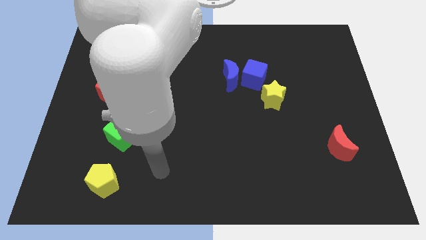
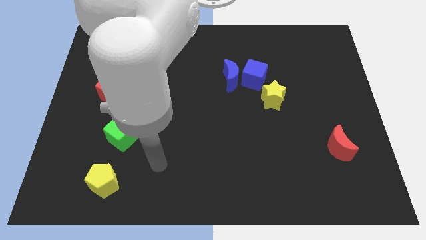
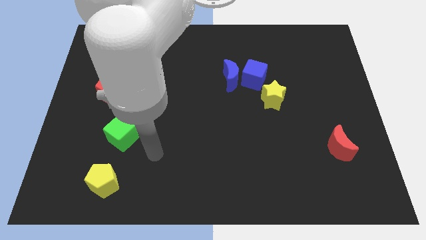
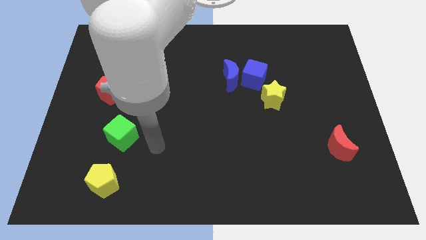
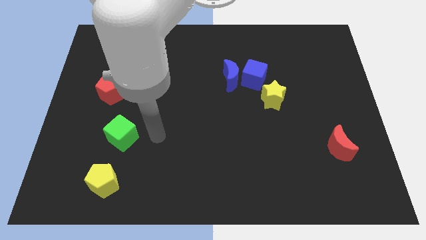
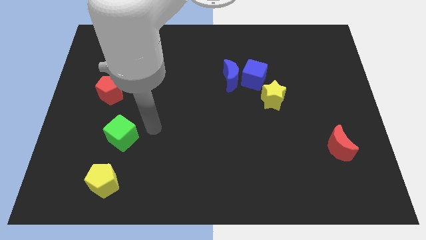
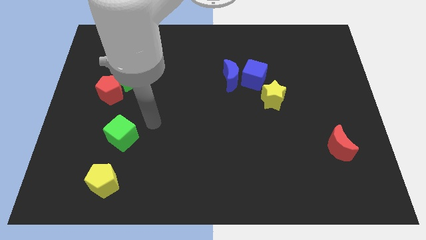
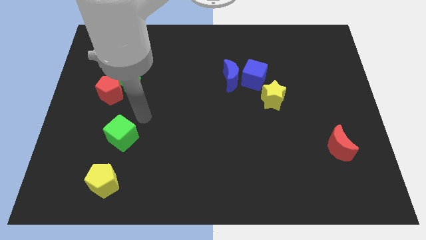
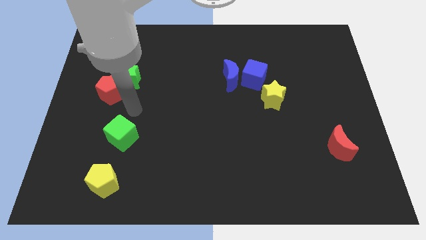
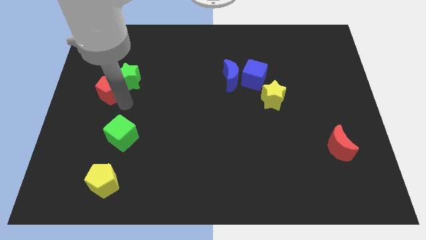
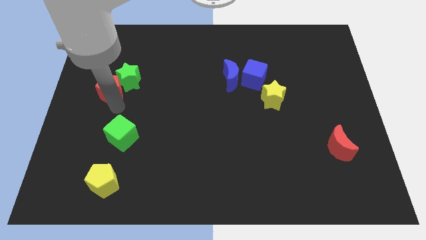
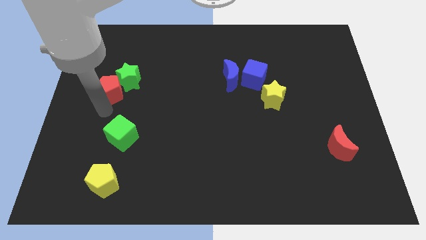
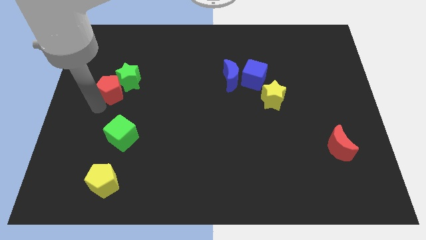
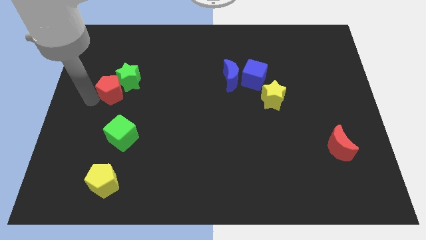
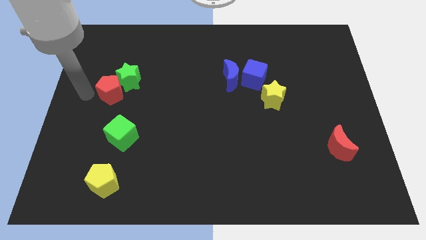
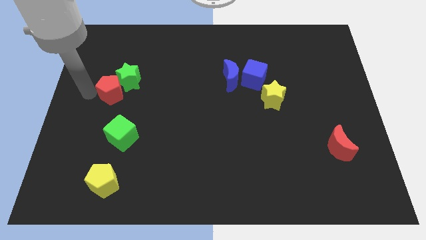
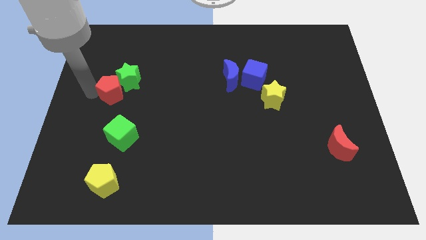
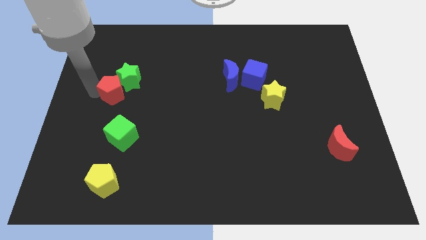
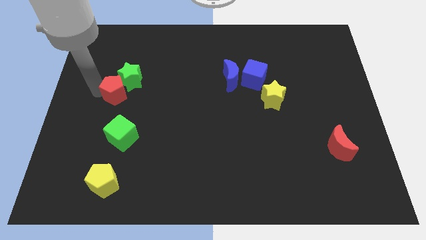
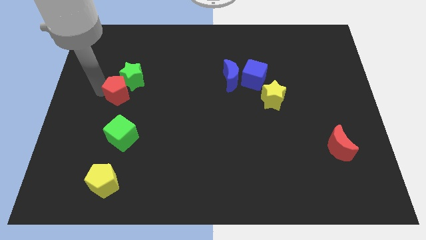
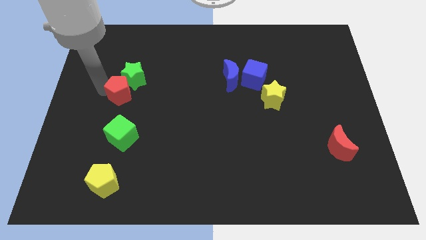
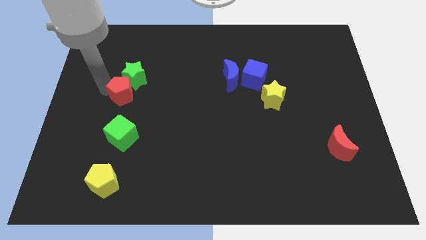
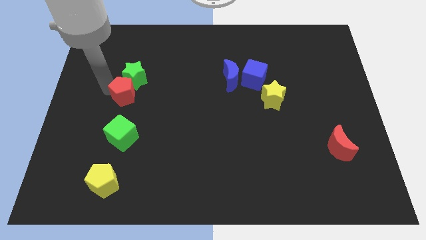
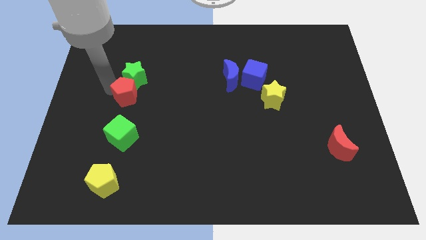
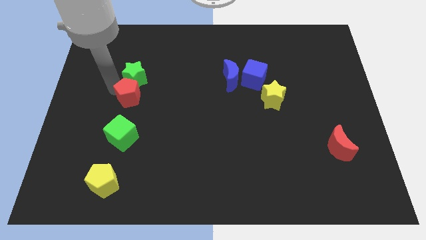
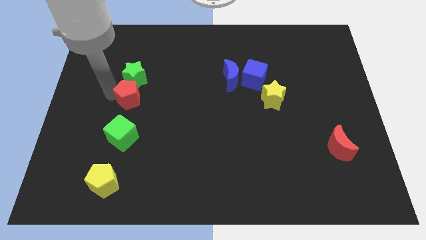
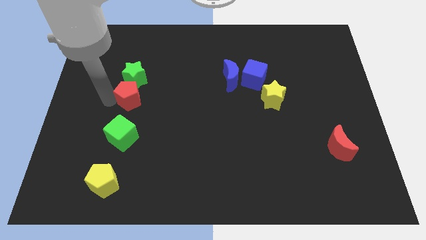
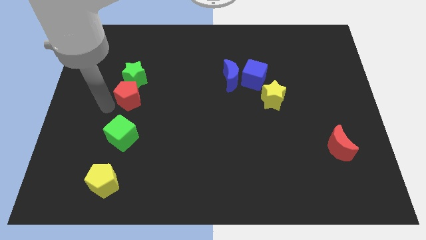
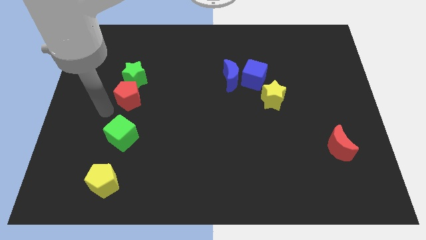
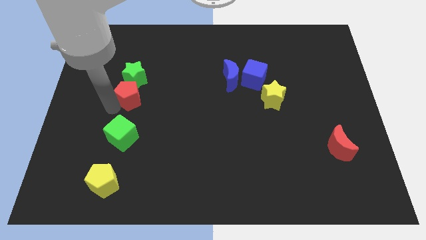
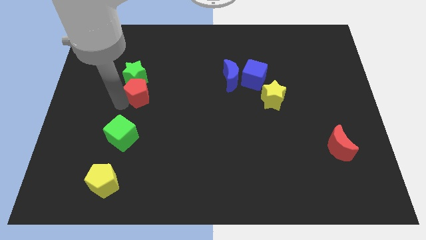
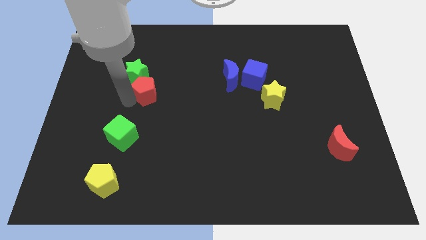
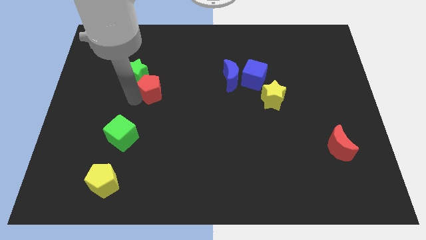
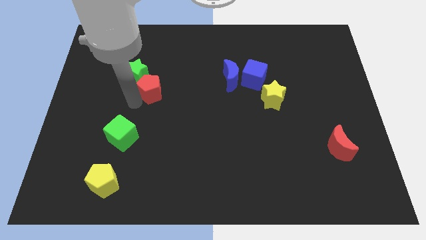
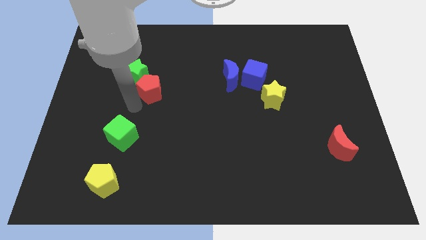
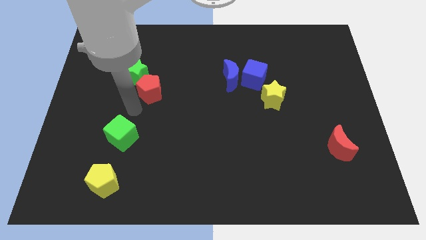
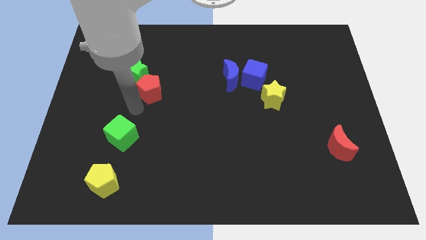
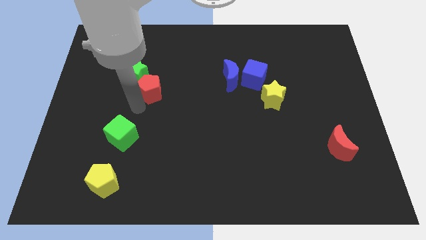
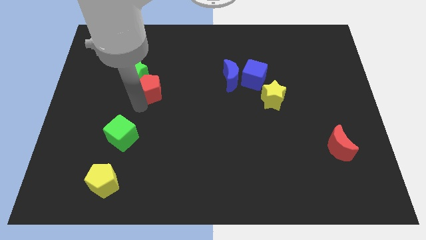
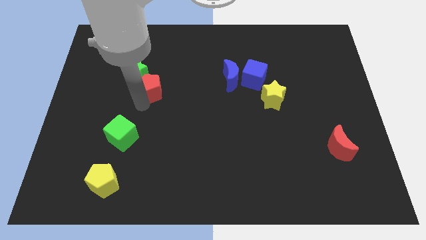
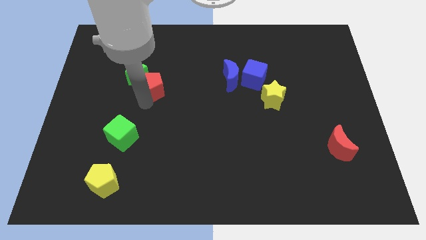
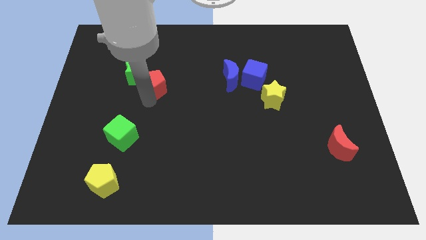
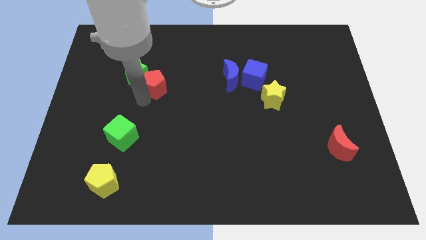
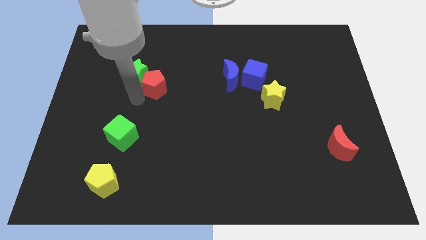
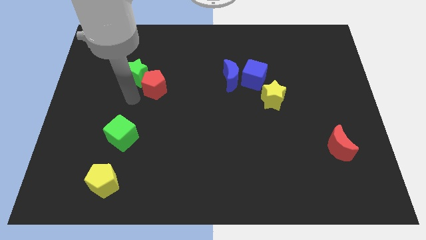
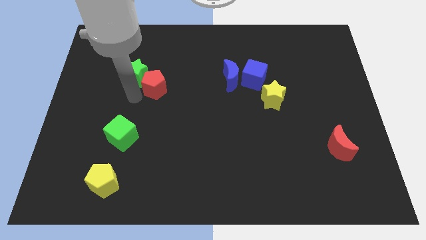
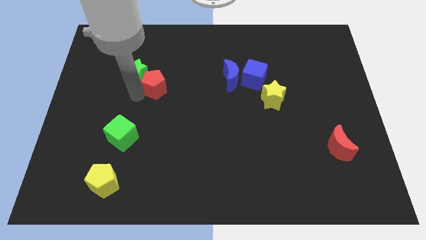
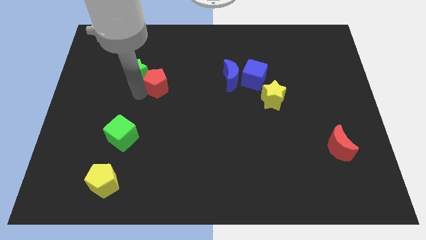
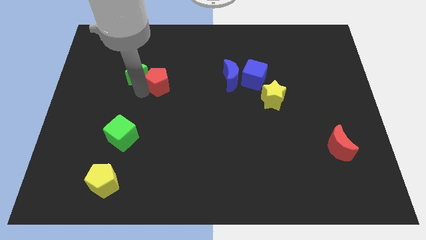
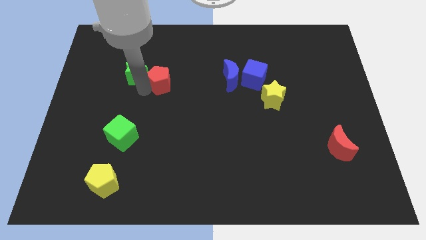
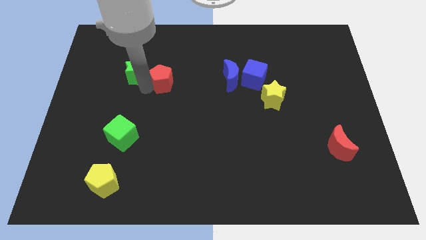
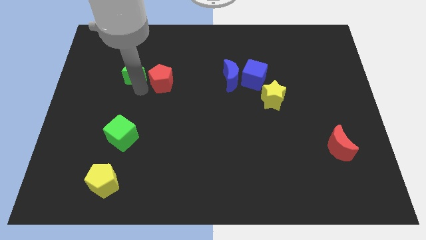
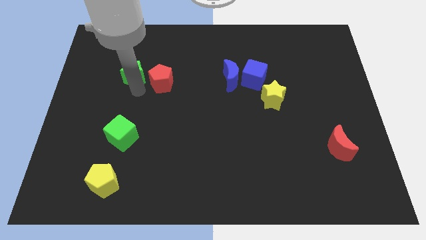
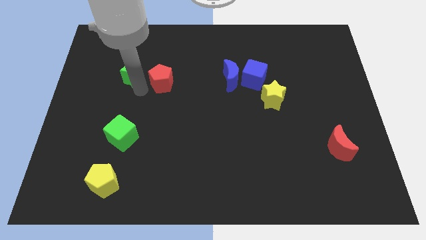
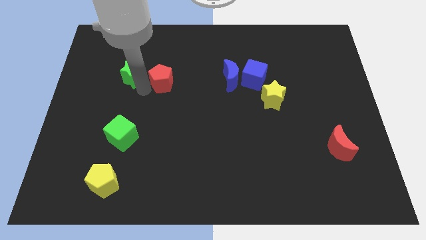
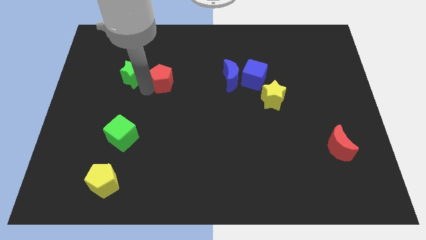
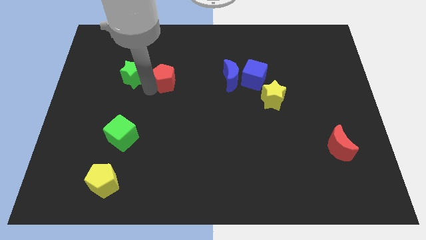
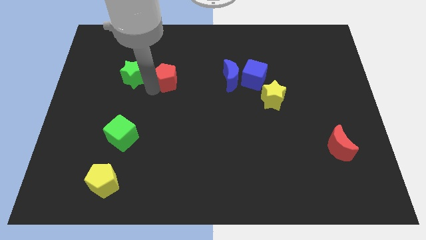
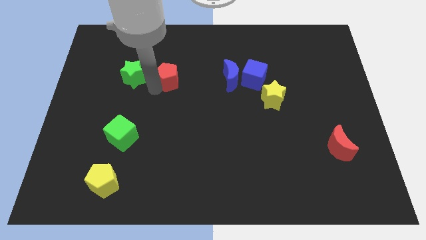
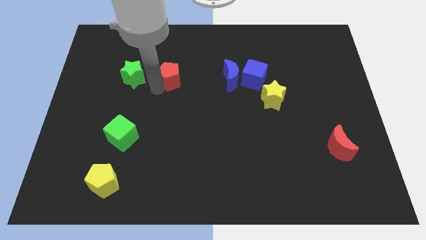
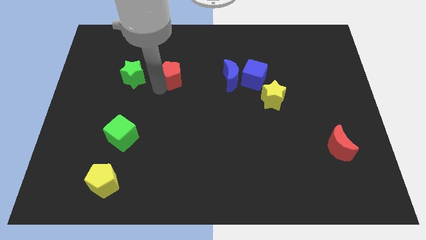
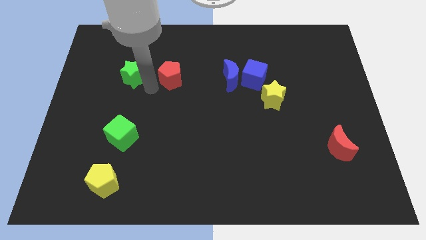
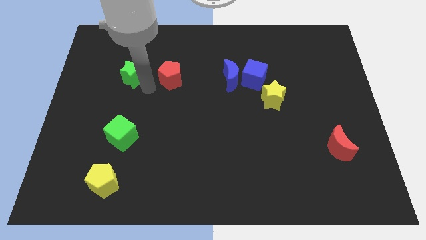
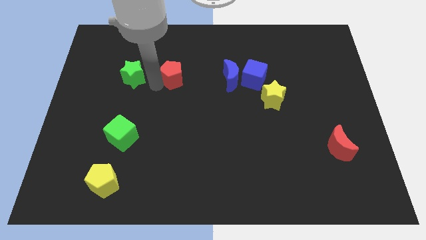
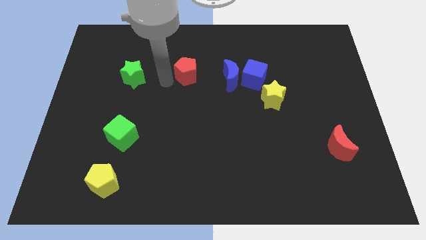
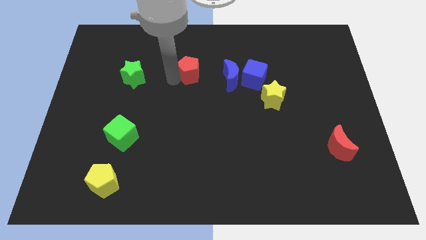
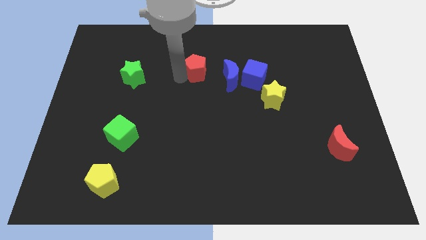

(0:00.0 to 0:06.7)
slide the red pentagon diagonally up and to the left of the blue moon

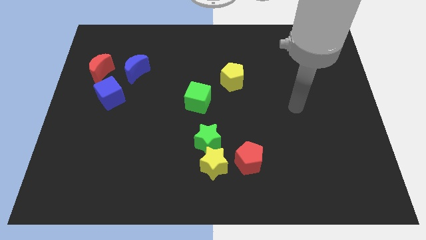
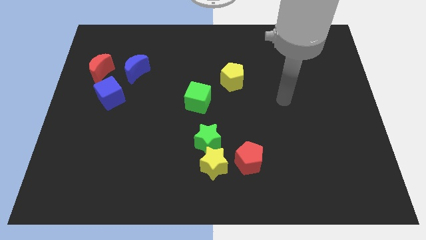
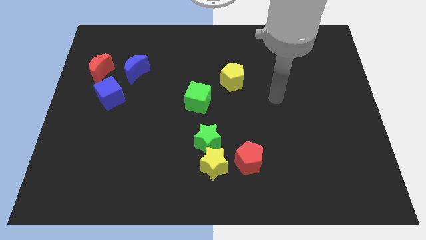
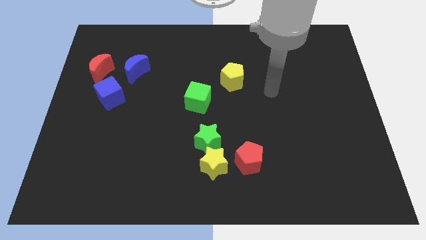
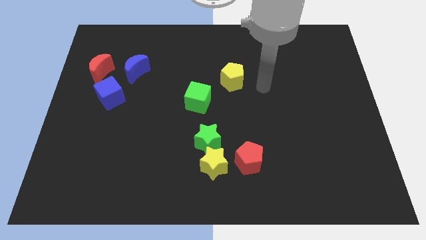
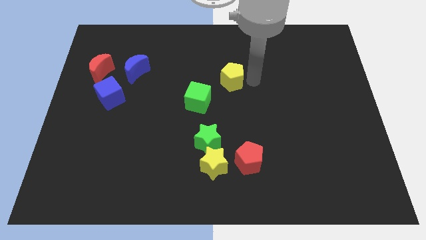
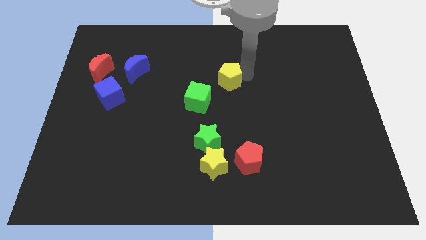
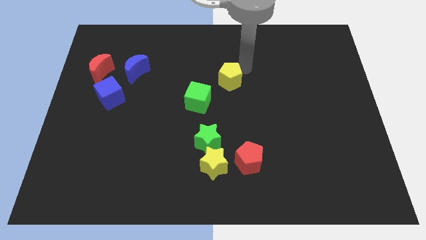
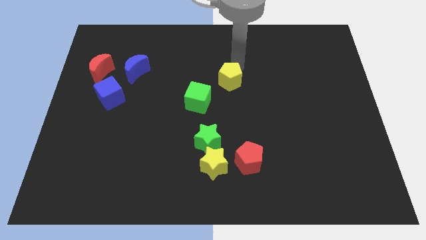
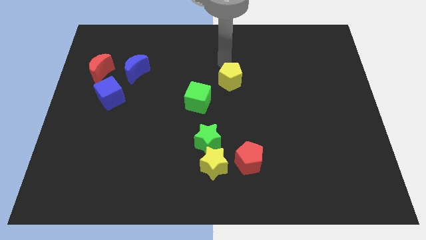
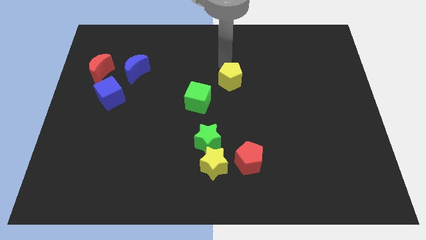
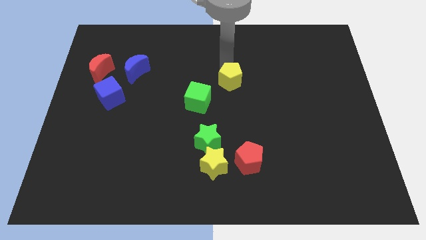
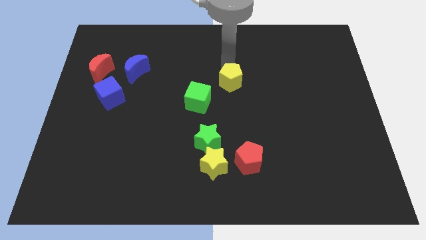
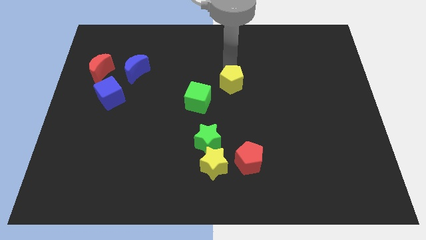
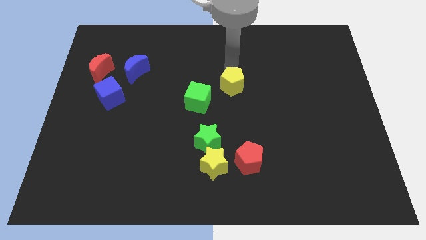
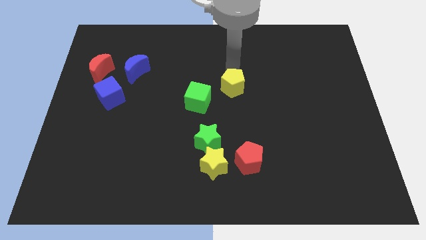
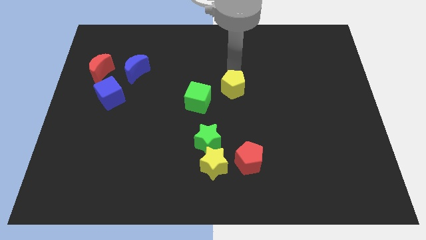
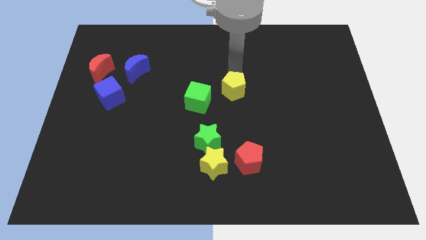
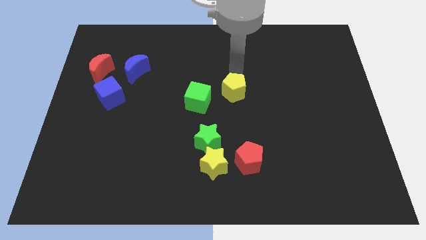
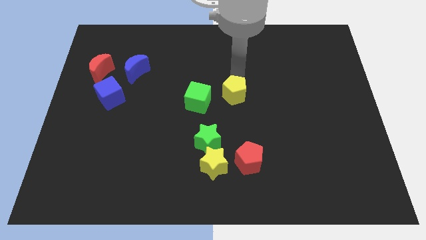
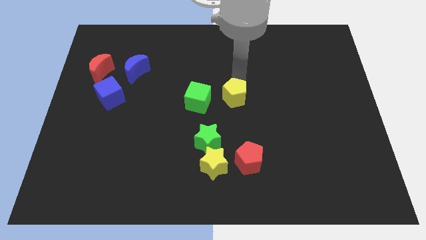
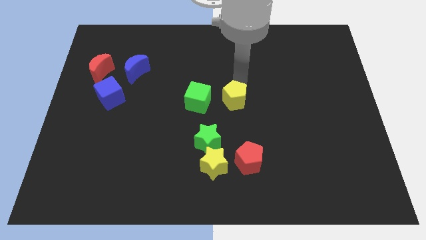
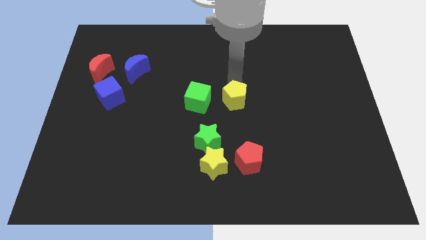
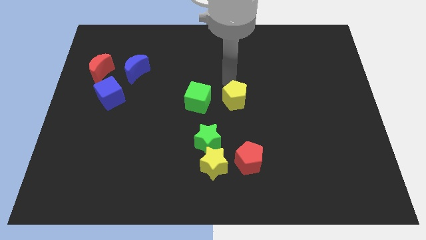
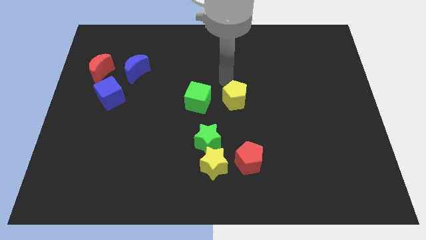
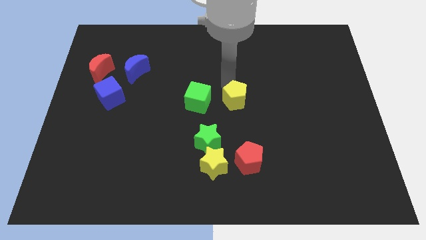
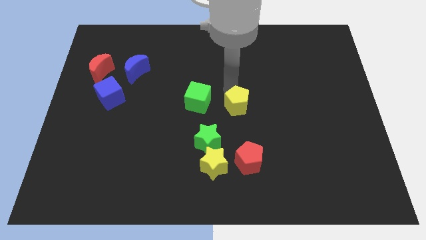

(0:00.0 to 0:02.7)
slide the yellow pentagon to the top side of the red pentagon
